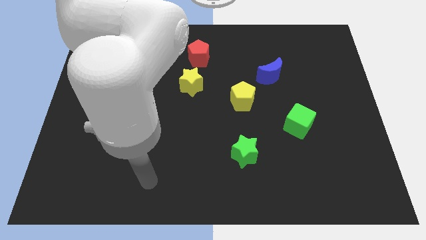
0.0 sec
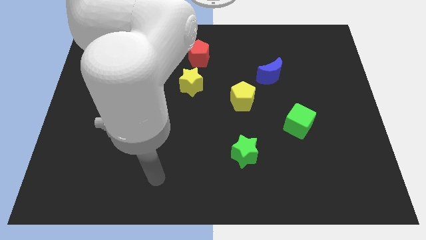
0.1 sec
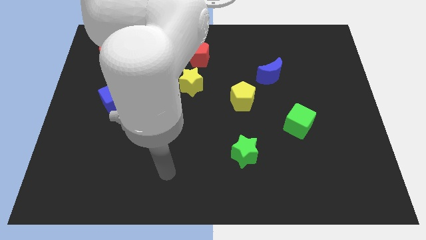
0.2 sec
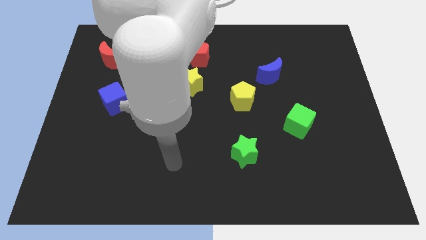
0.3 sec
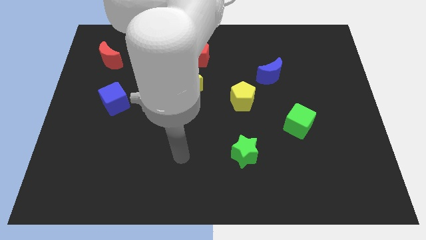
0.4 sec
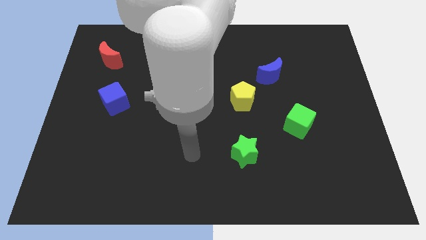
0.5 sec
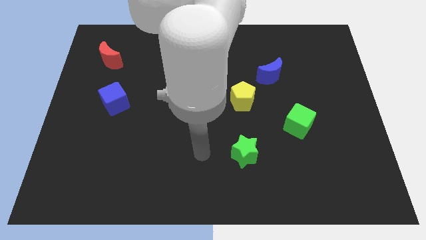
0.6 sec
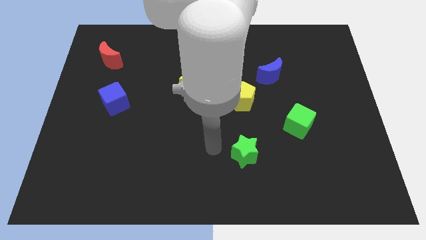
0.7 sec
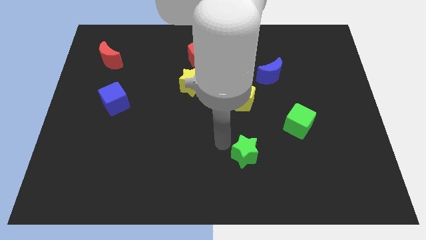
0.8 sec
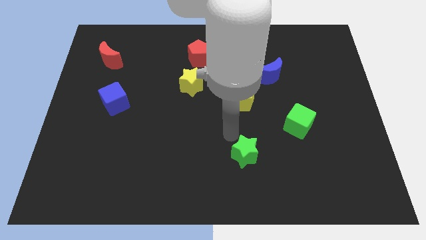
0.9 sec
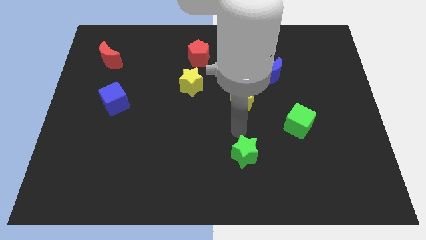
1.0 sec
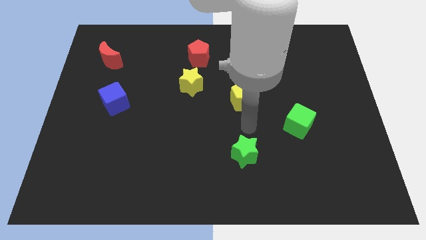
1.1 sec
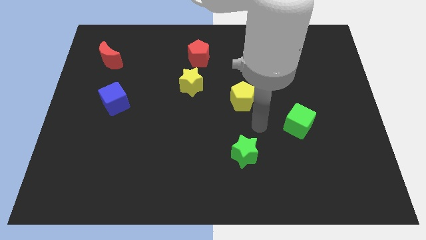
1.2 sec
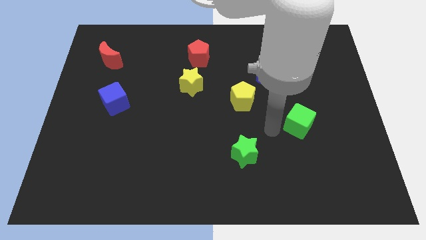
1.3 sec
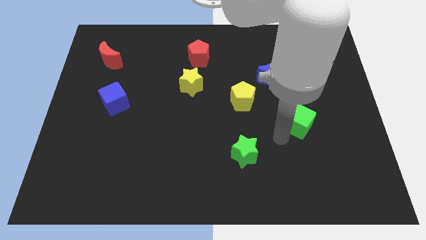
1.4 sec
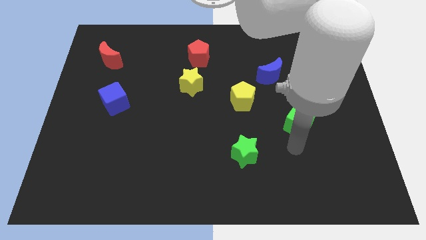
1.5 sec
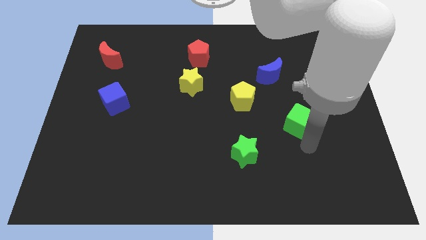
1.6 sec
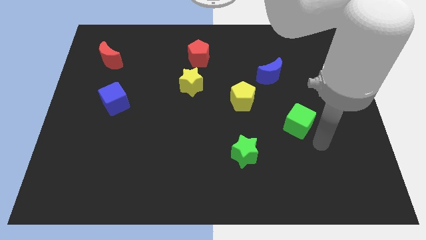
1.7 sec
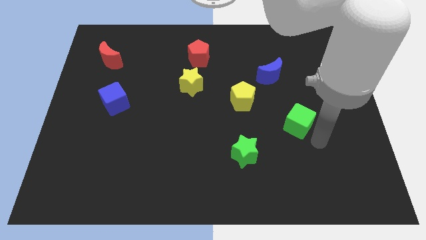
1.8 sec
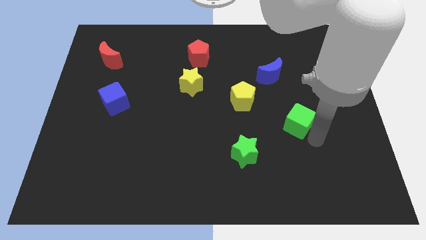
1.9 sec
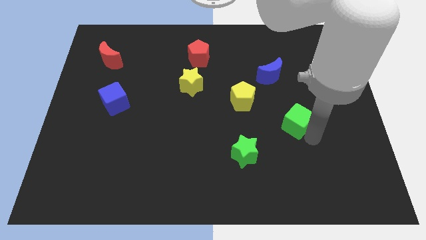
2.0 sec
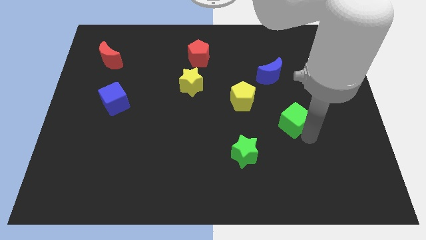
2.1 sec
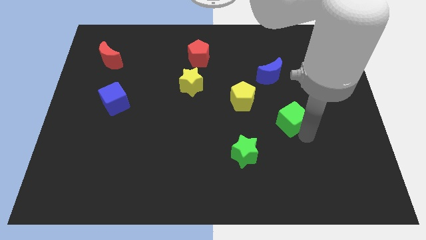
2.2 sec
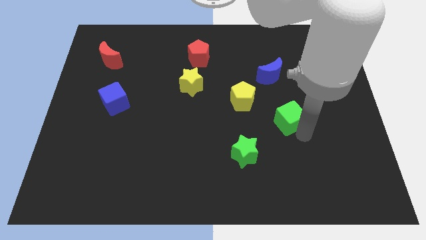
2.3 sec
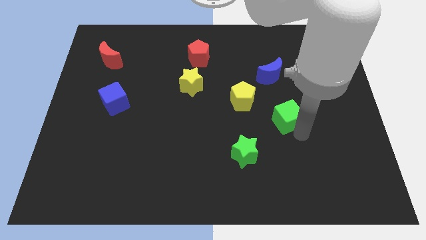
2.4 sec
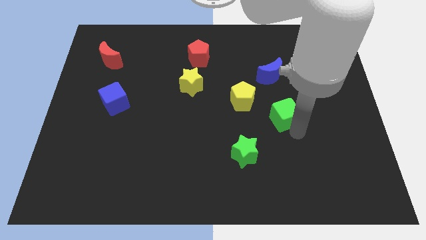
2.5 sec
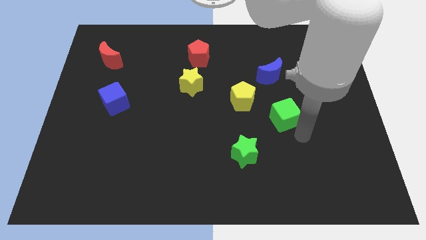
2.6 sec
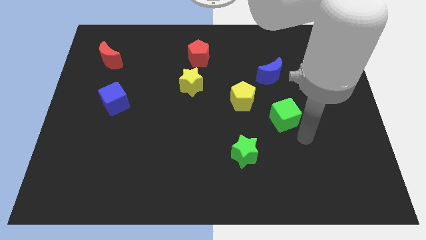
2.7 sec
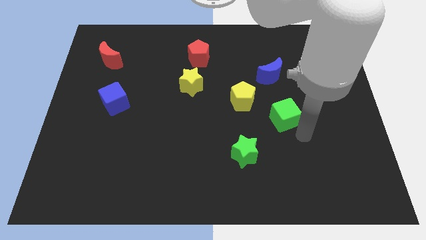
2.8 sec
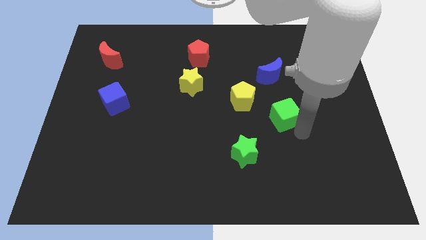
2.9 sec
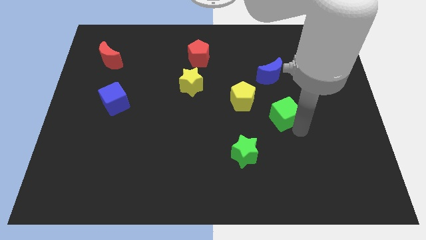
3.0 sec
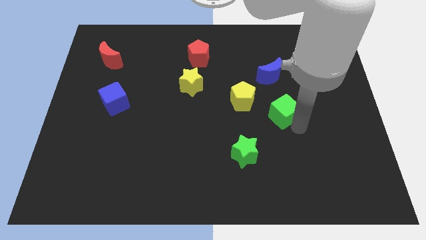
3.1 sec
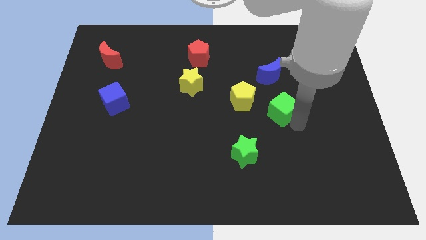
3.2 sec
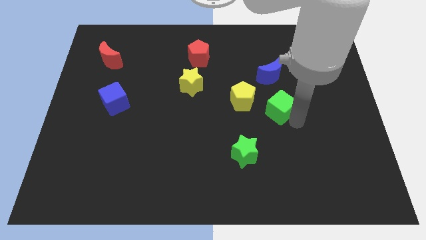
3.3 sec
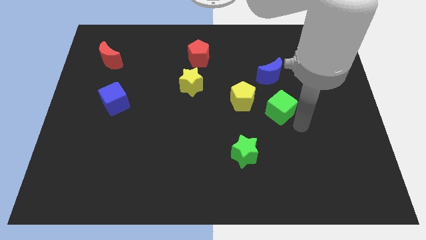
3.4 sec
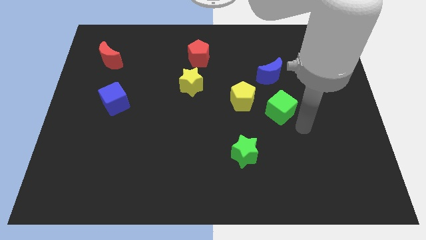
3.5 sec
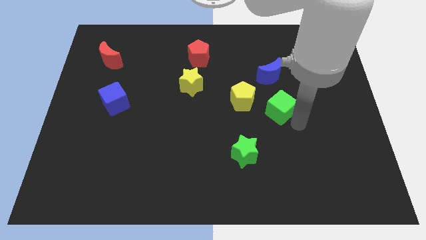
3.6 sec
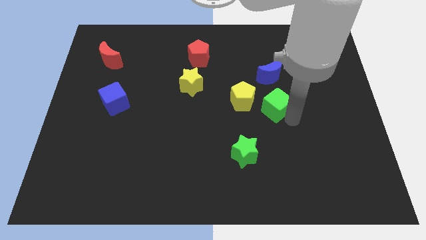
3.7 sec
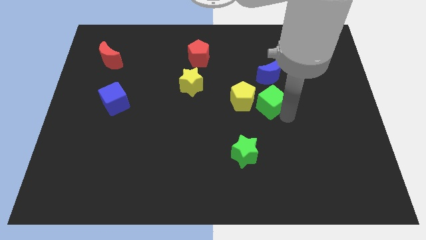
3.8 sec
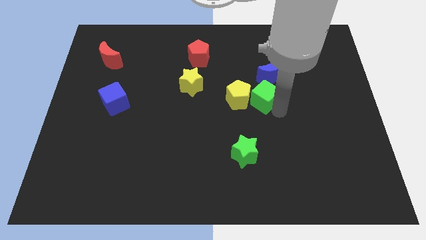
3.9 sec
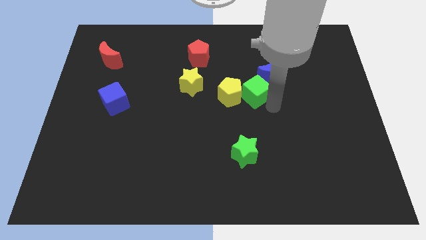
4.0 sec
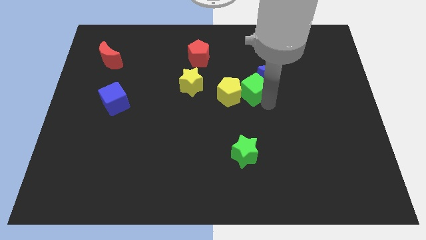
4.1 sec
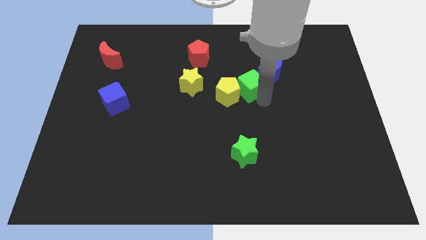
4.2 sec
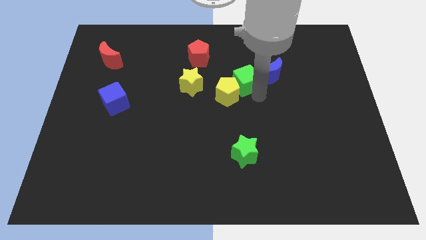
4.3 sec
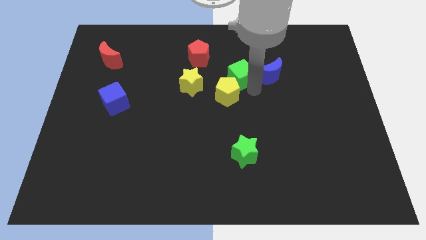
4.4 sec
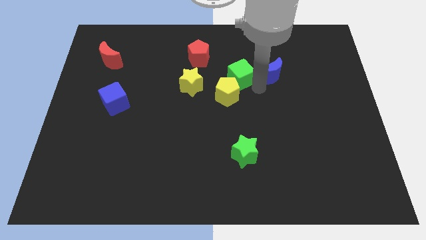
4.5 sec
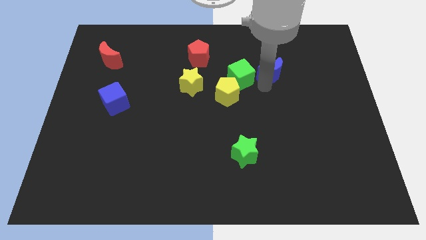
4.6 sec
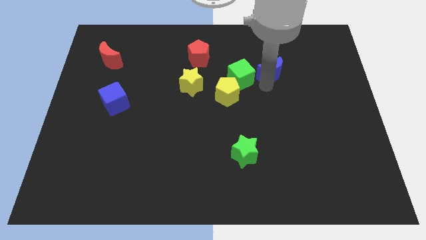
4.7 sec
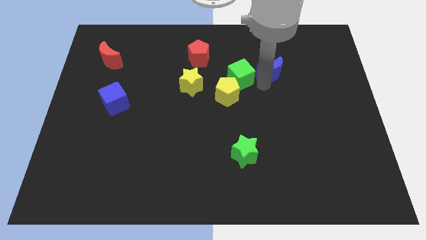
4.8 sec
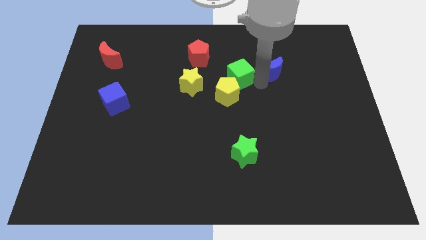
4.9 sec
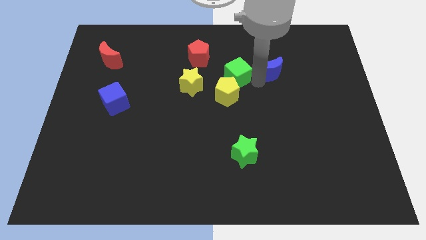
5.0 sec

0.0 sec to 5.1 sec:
move the green cube diagonally down and to the right of the red pentagon

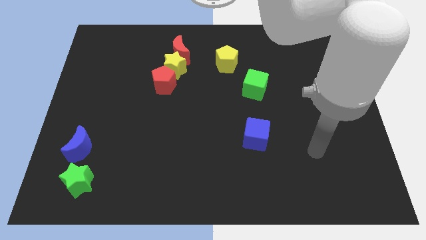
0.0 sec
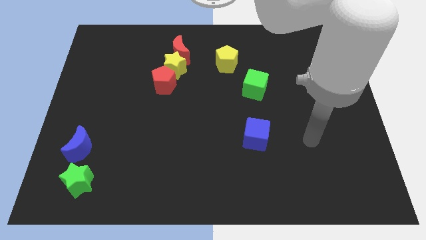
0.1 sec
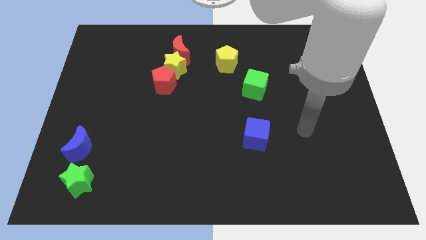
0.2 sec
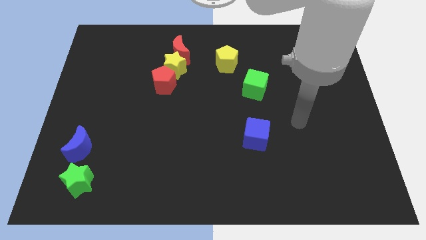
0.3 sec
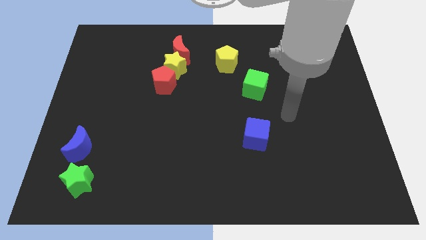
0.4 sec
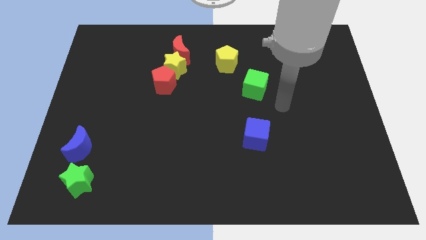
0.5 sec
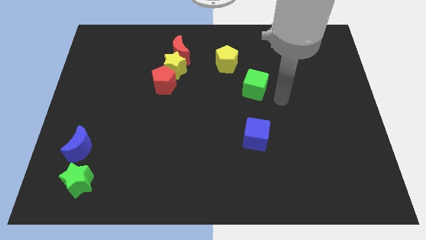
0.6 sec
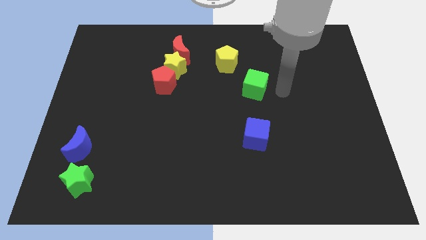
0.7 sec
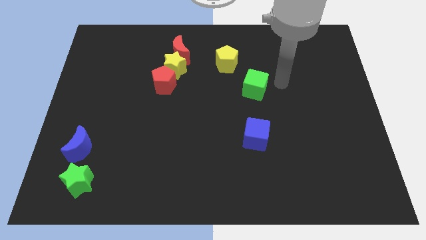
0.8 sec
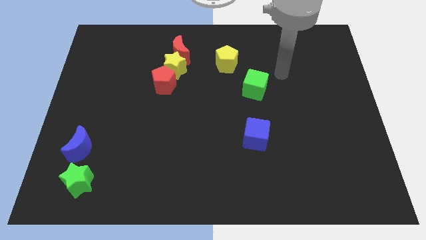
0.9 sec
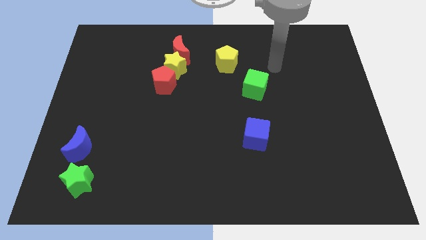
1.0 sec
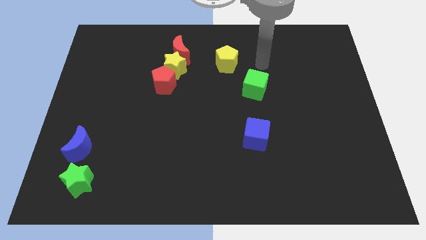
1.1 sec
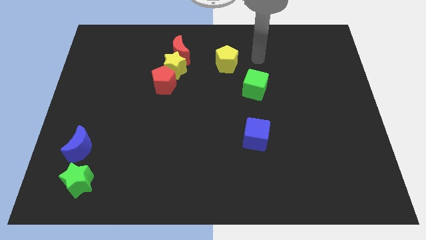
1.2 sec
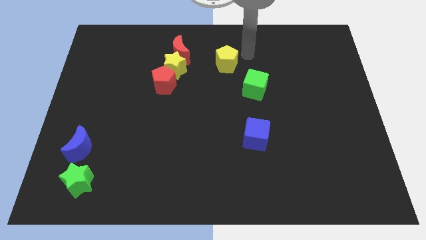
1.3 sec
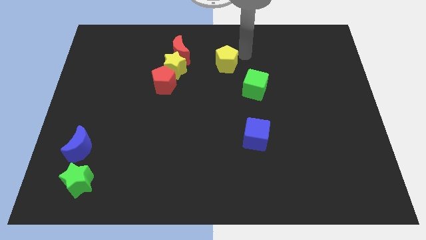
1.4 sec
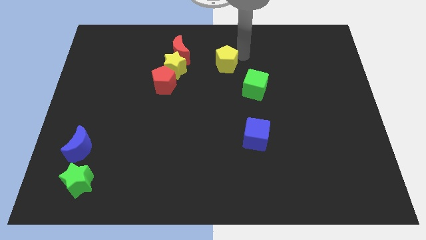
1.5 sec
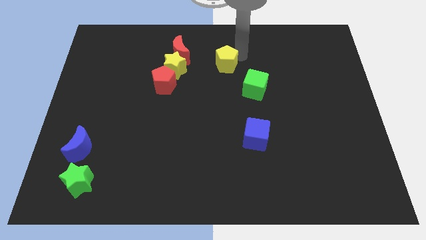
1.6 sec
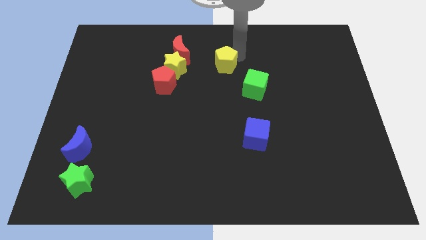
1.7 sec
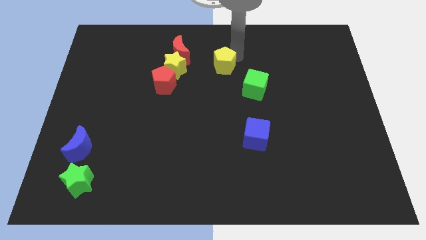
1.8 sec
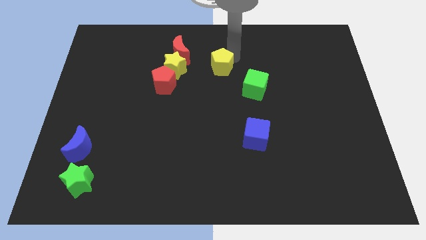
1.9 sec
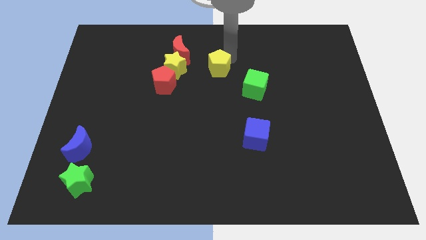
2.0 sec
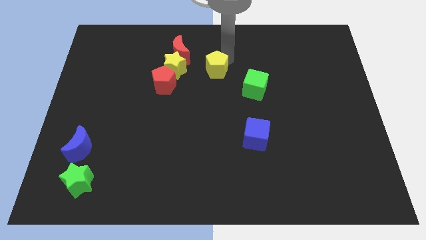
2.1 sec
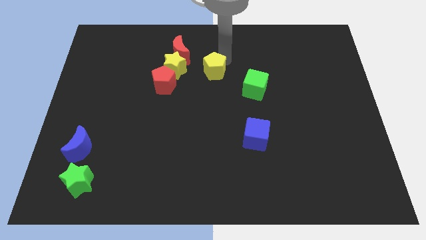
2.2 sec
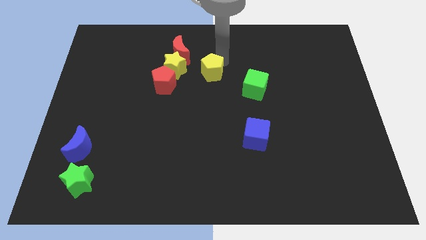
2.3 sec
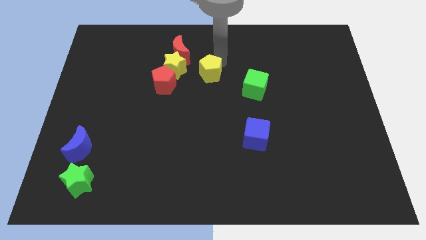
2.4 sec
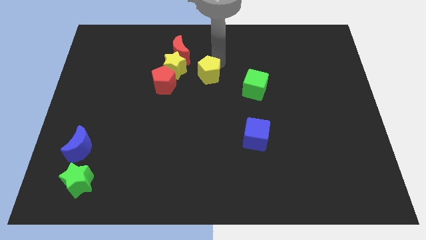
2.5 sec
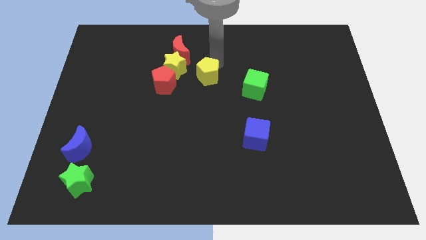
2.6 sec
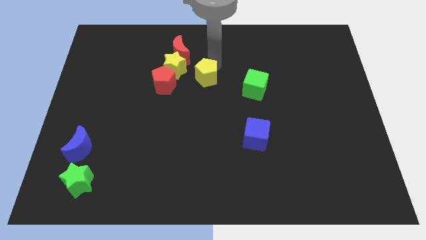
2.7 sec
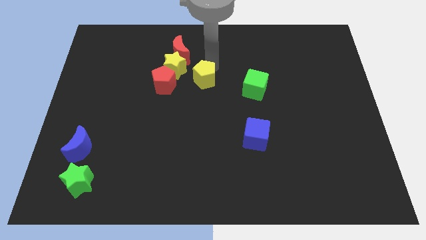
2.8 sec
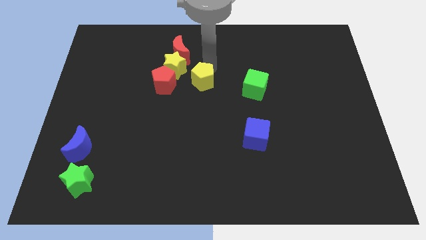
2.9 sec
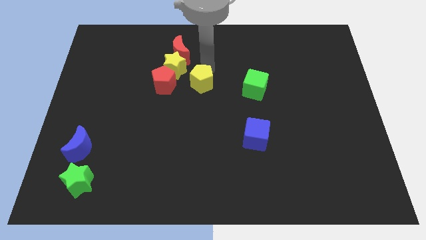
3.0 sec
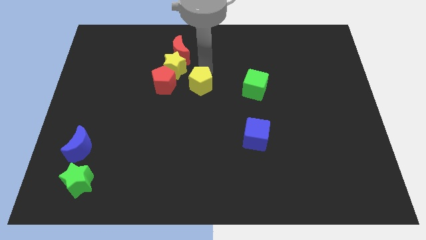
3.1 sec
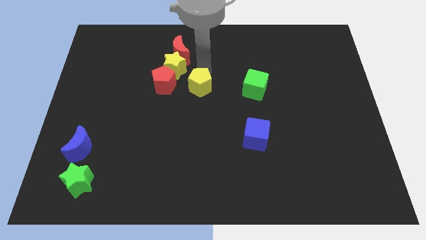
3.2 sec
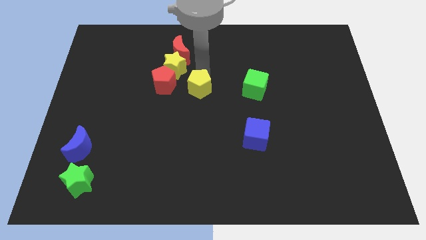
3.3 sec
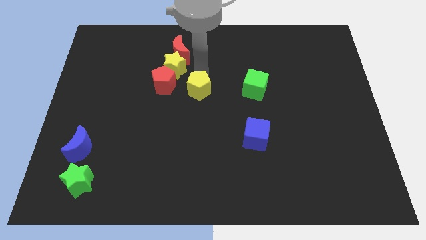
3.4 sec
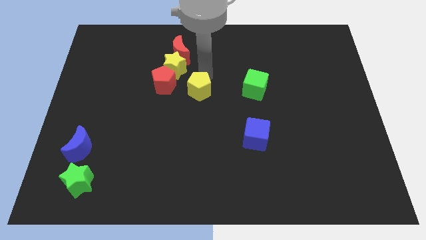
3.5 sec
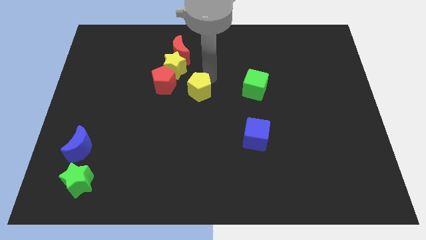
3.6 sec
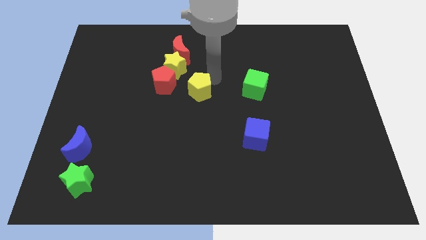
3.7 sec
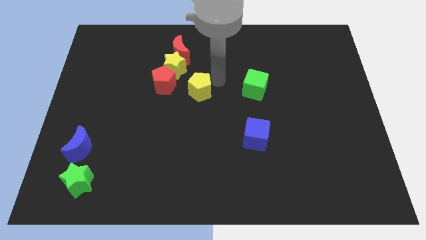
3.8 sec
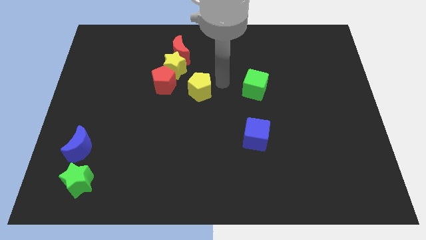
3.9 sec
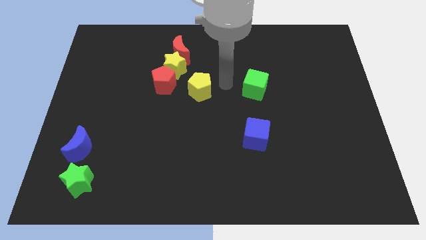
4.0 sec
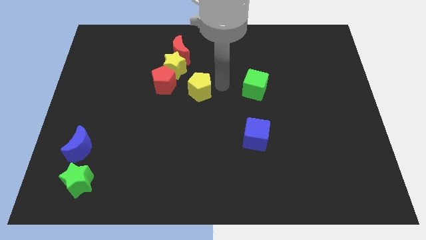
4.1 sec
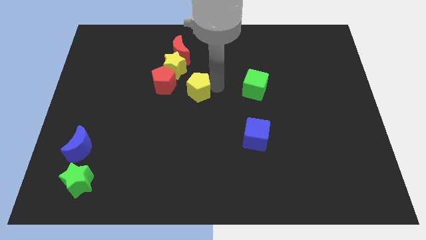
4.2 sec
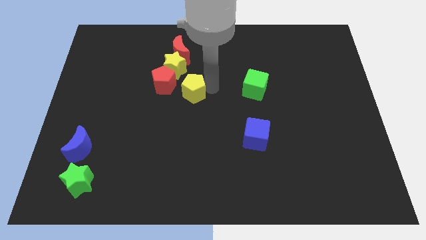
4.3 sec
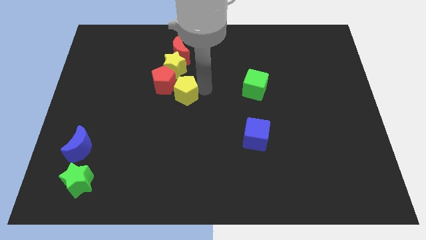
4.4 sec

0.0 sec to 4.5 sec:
put the yellow pentagon to the bottom of the yellow star
